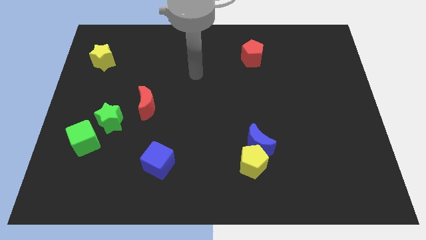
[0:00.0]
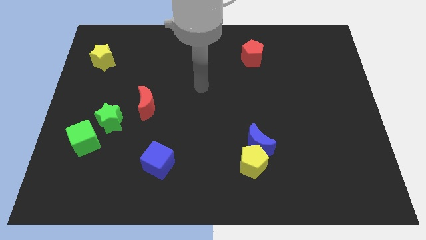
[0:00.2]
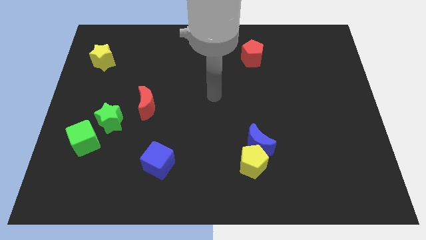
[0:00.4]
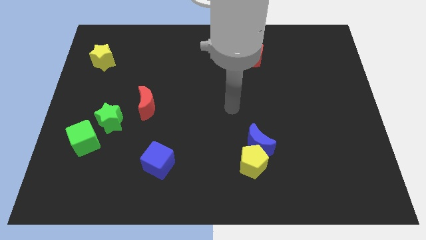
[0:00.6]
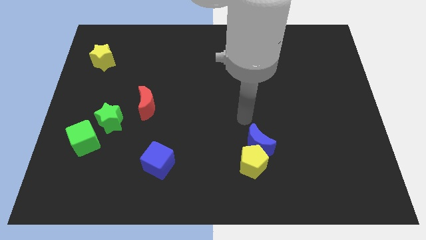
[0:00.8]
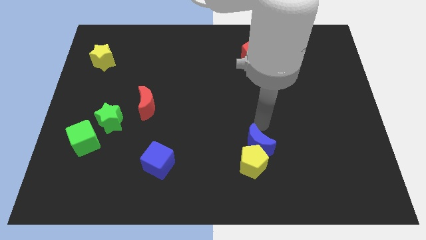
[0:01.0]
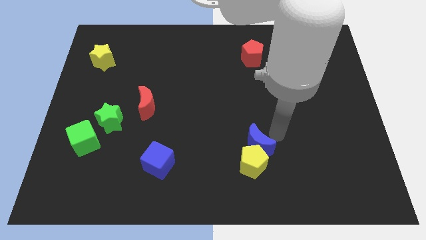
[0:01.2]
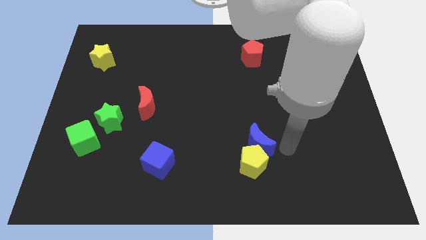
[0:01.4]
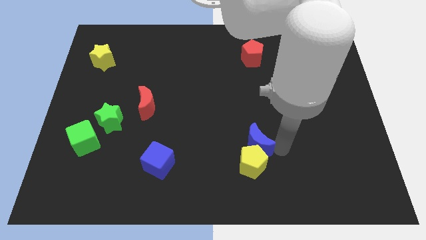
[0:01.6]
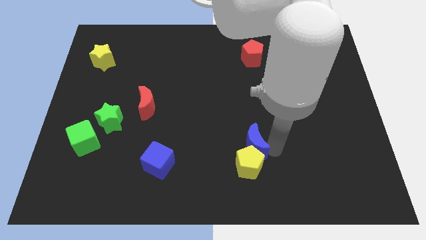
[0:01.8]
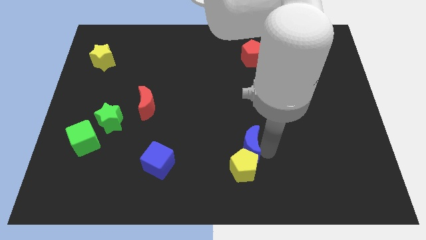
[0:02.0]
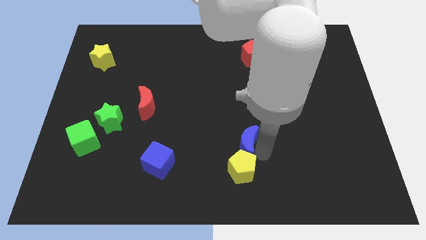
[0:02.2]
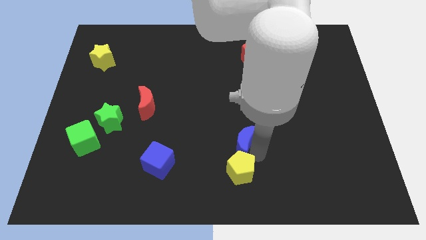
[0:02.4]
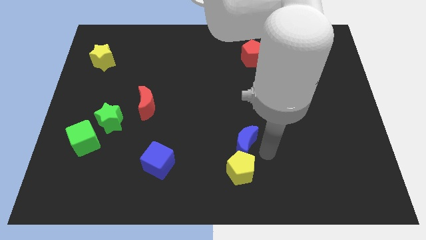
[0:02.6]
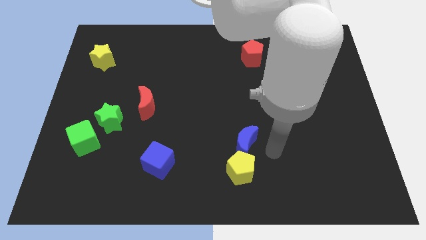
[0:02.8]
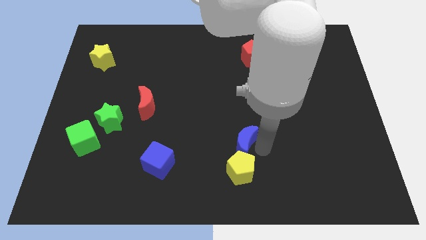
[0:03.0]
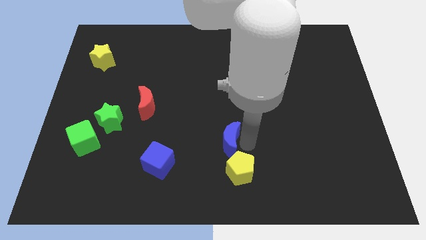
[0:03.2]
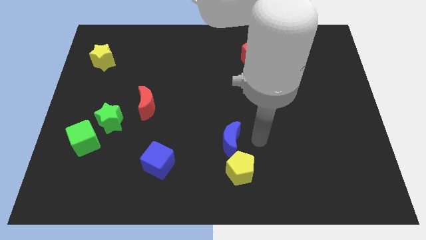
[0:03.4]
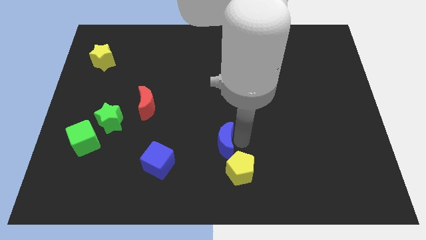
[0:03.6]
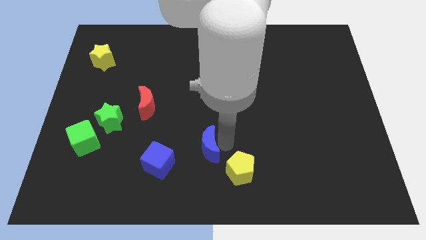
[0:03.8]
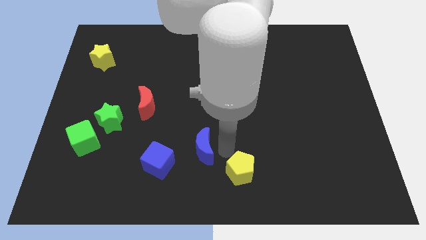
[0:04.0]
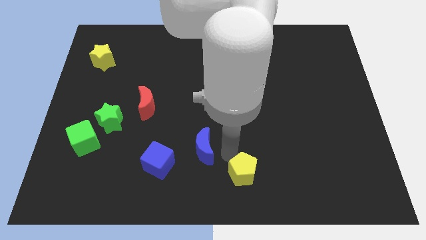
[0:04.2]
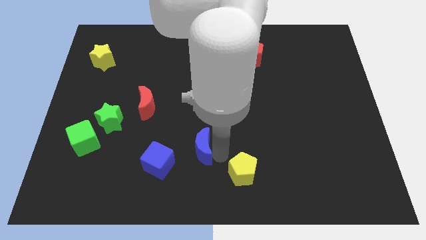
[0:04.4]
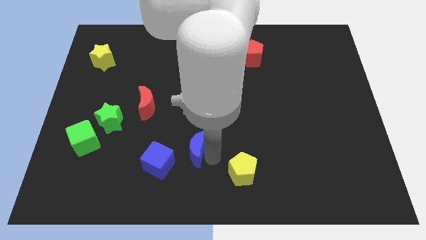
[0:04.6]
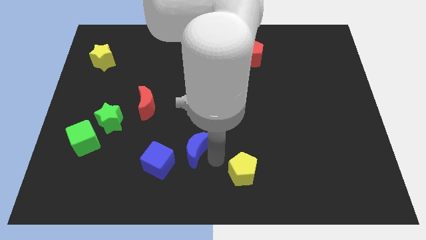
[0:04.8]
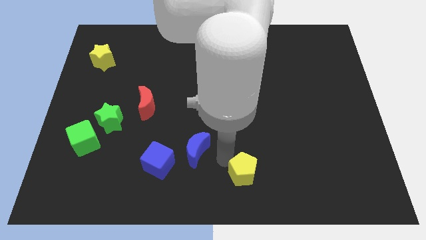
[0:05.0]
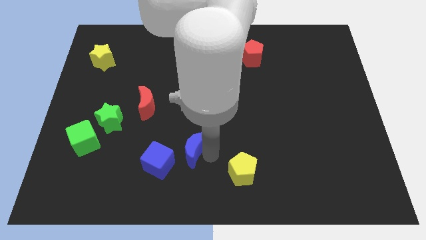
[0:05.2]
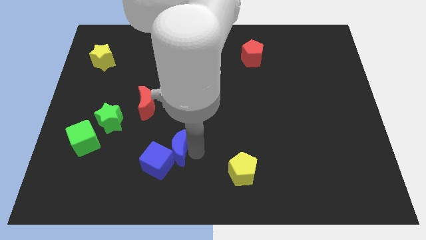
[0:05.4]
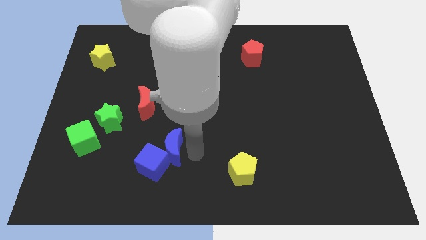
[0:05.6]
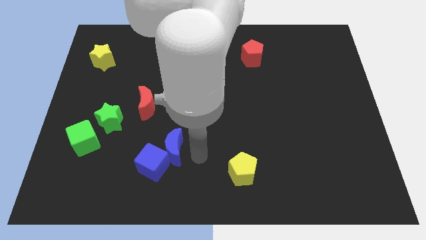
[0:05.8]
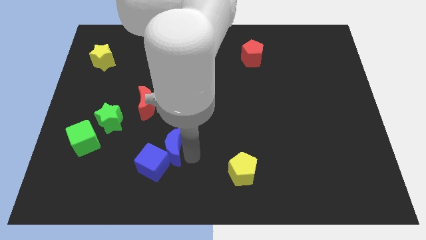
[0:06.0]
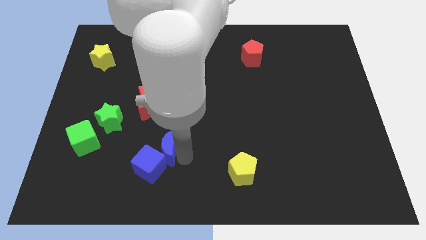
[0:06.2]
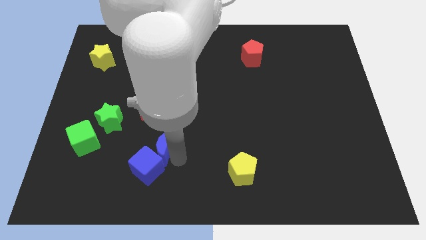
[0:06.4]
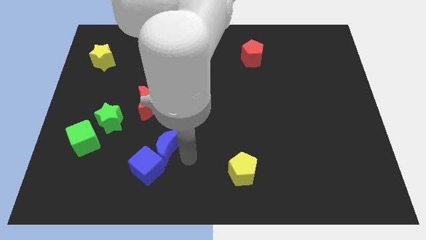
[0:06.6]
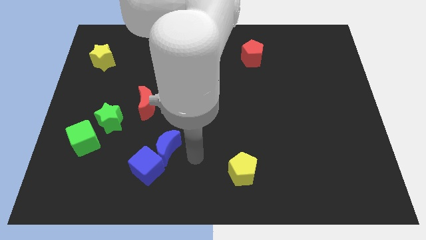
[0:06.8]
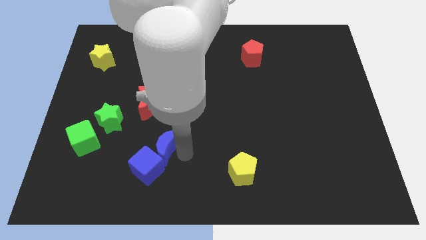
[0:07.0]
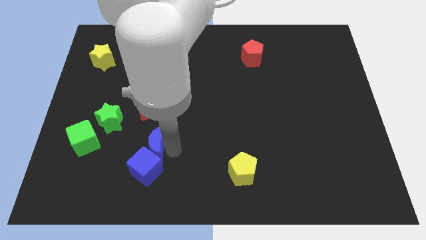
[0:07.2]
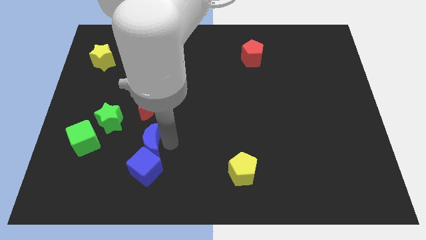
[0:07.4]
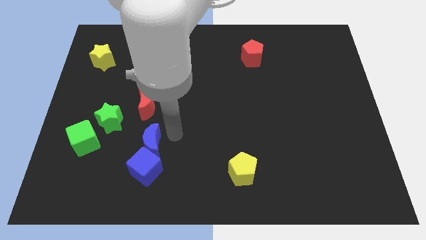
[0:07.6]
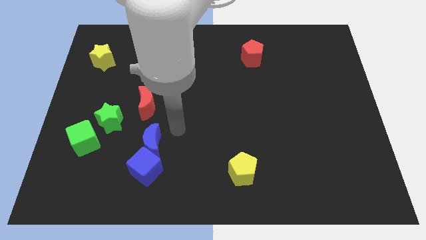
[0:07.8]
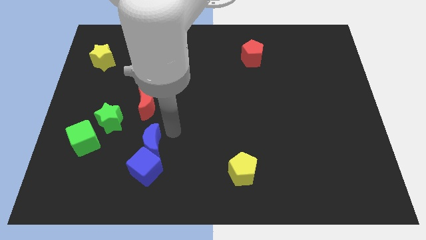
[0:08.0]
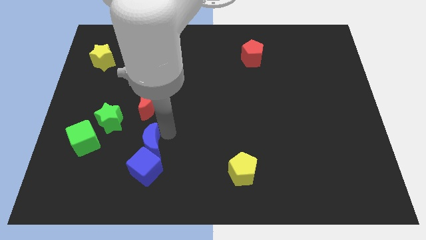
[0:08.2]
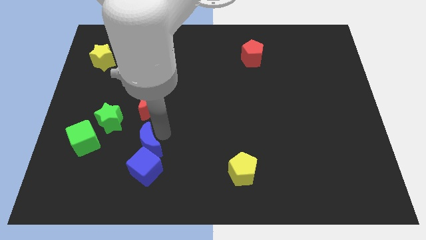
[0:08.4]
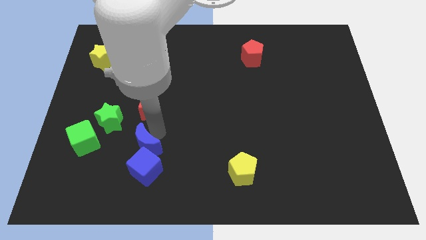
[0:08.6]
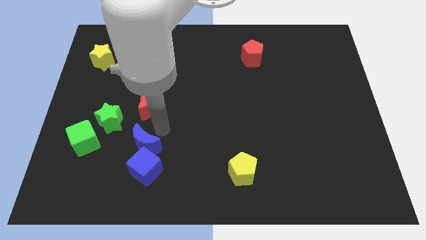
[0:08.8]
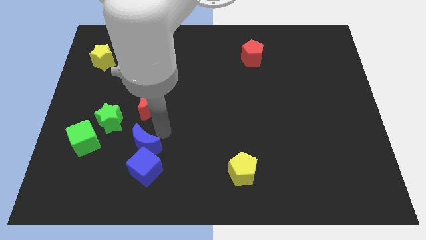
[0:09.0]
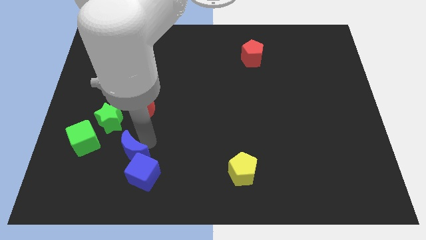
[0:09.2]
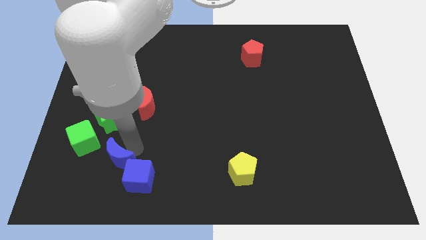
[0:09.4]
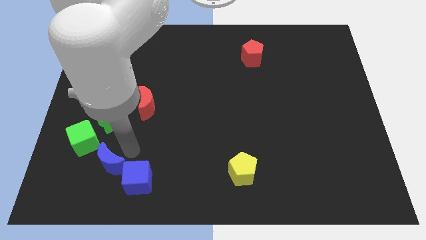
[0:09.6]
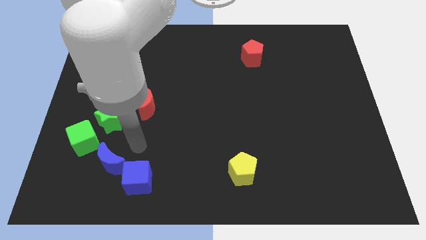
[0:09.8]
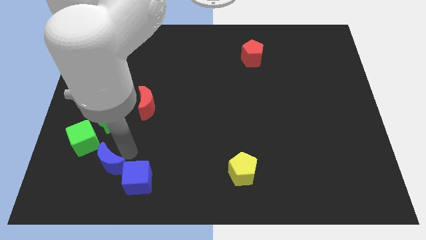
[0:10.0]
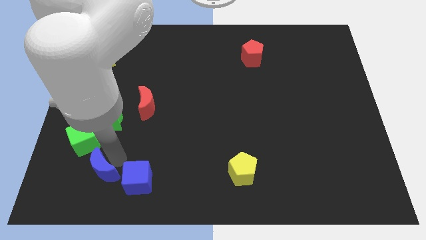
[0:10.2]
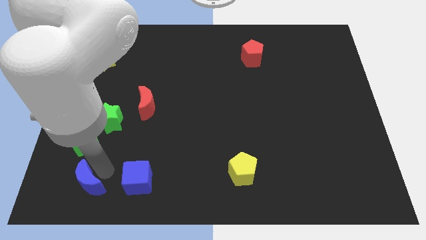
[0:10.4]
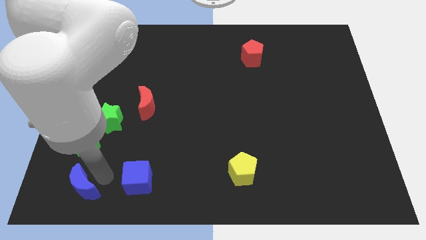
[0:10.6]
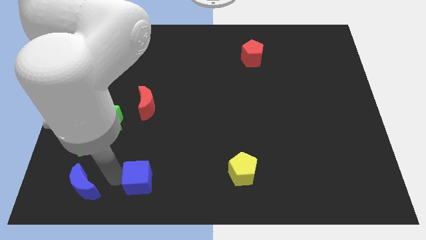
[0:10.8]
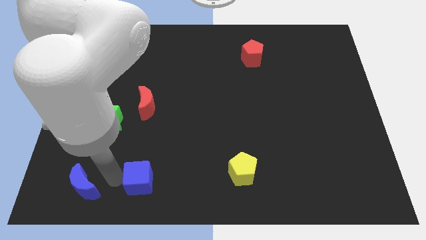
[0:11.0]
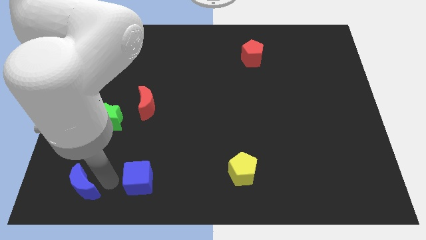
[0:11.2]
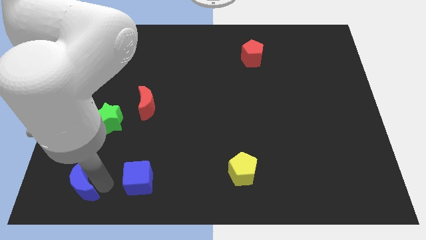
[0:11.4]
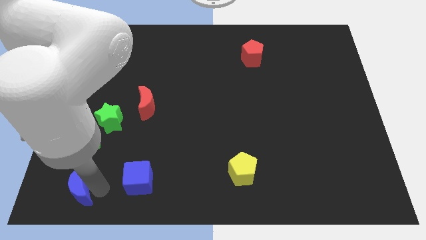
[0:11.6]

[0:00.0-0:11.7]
slide the blue moon to the lower left corner

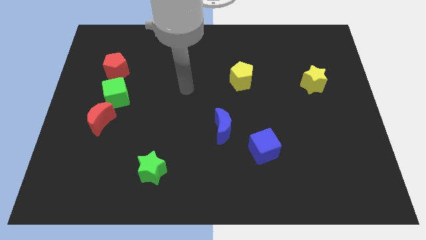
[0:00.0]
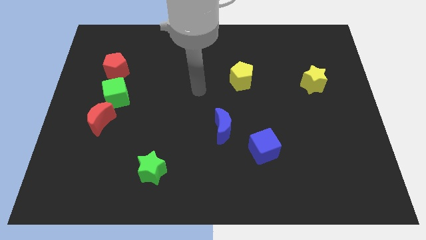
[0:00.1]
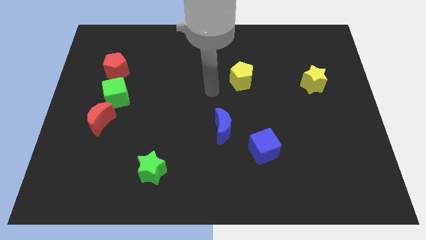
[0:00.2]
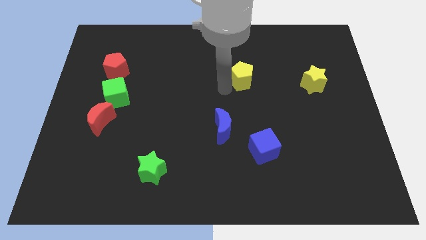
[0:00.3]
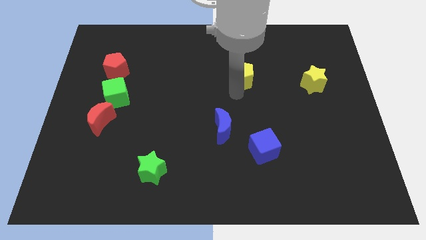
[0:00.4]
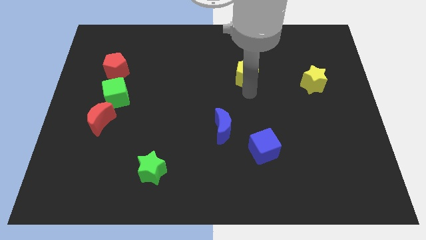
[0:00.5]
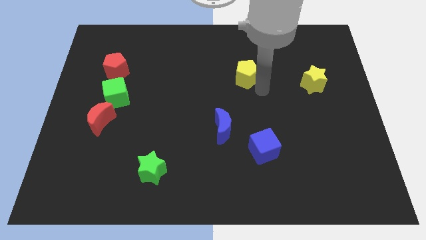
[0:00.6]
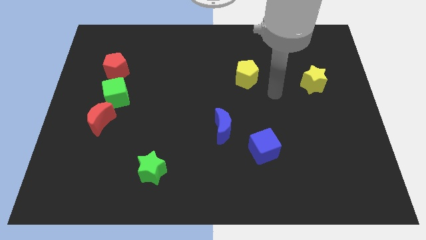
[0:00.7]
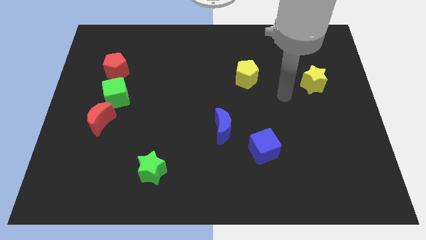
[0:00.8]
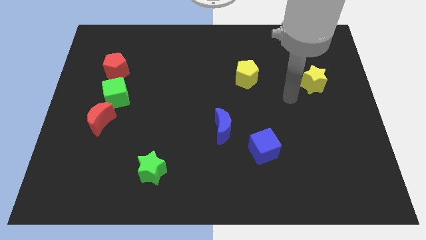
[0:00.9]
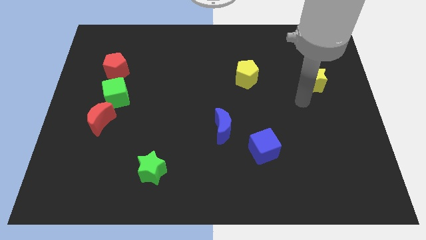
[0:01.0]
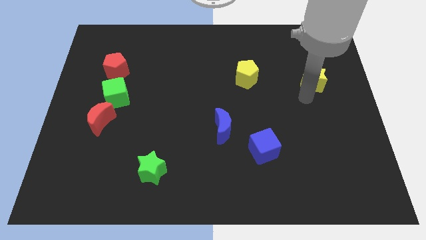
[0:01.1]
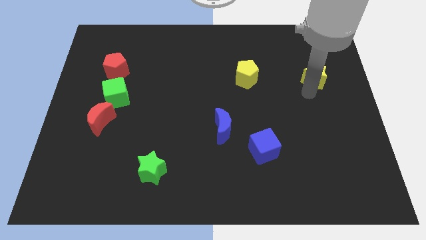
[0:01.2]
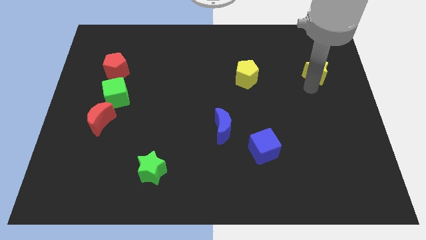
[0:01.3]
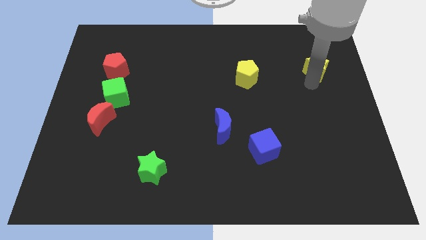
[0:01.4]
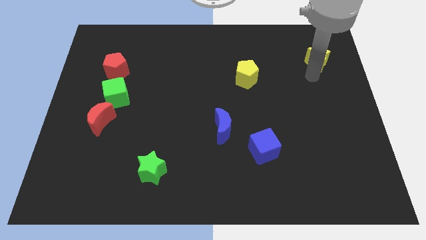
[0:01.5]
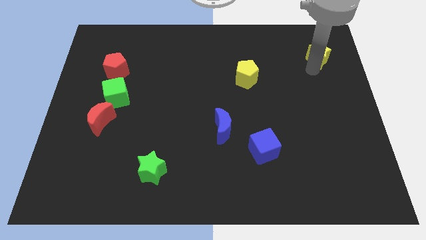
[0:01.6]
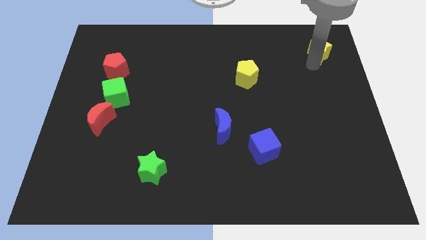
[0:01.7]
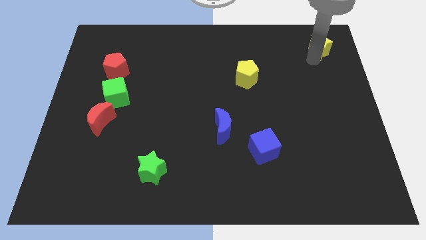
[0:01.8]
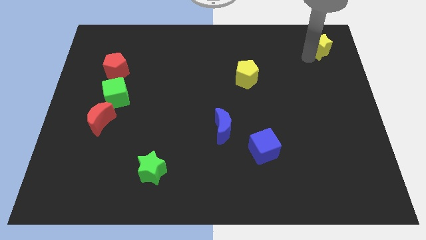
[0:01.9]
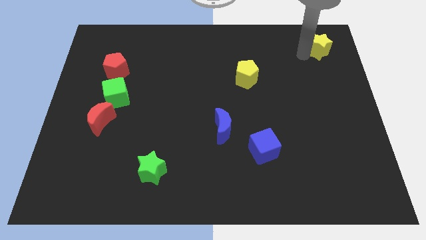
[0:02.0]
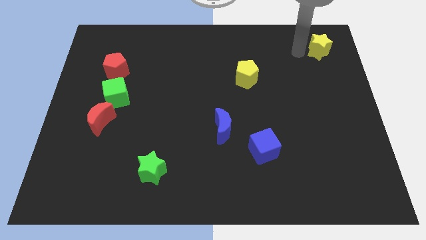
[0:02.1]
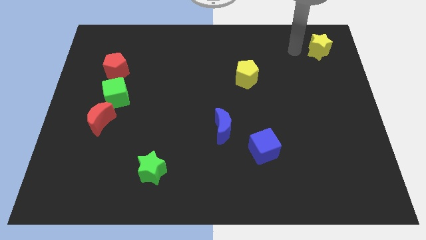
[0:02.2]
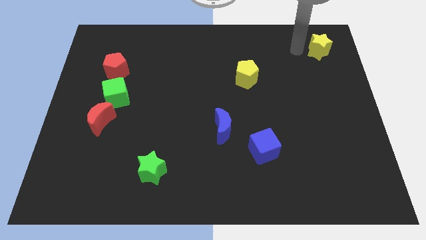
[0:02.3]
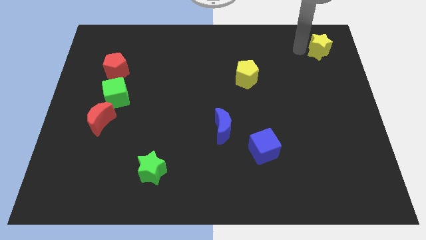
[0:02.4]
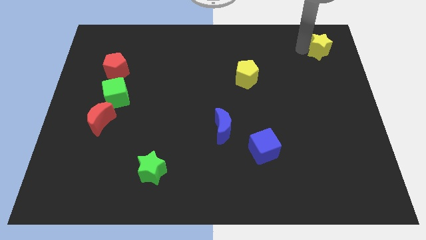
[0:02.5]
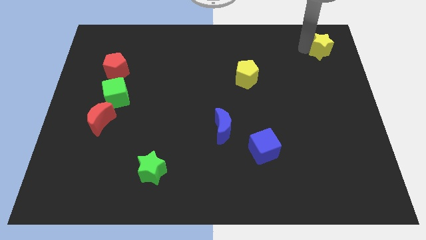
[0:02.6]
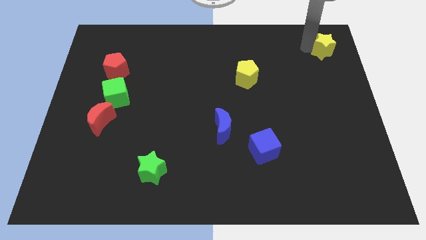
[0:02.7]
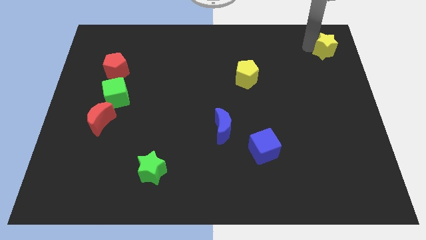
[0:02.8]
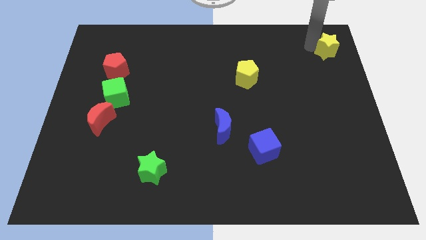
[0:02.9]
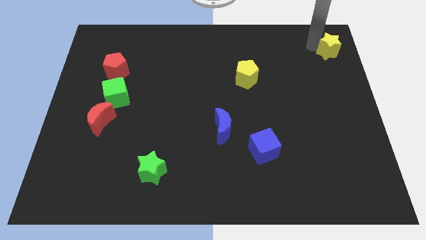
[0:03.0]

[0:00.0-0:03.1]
slide the yellow star to the top right corner
